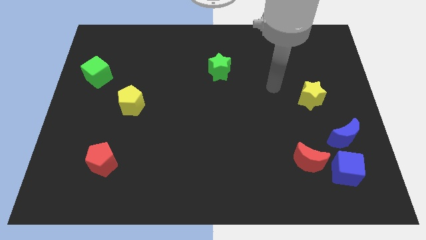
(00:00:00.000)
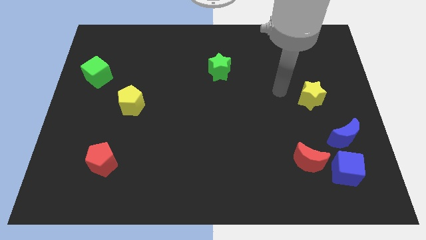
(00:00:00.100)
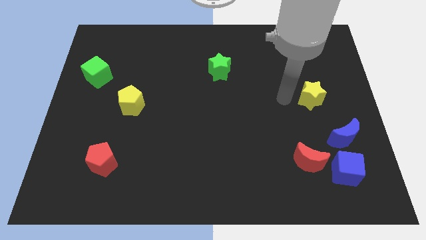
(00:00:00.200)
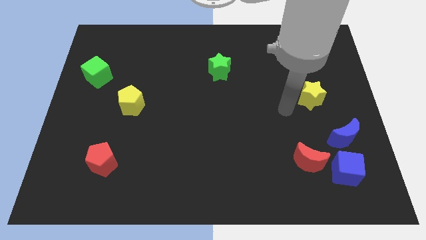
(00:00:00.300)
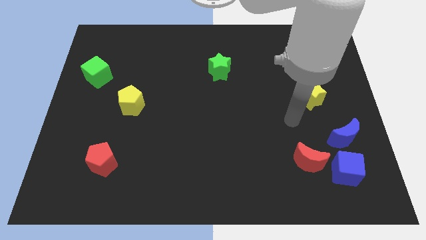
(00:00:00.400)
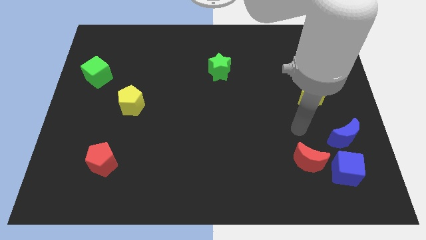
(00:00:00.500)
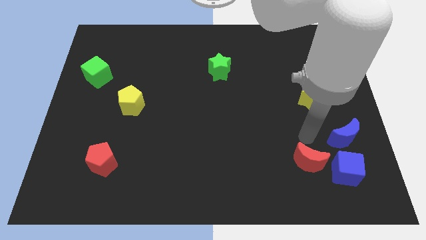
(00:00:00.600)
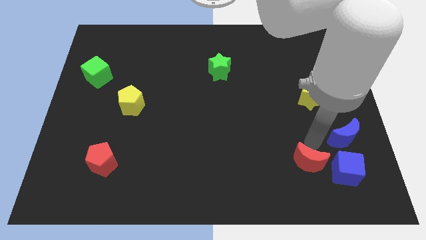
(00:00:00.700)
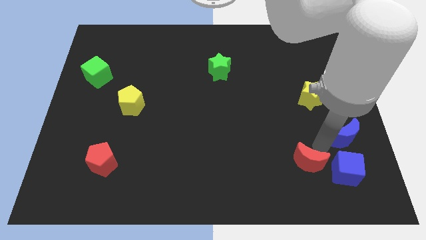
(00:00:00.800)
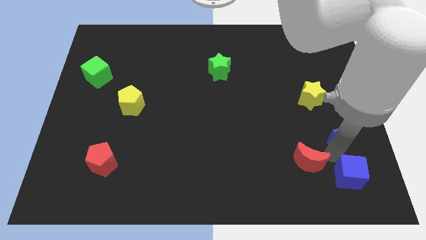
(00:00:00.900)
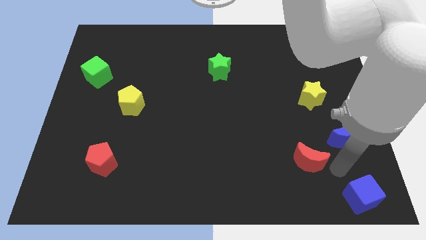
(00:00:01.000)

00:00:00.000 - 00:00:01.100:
separate the red moon from the blue cube

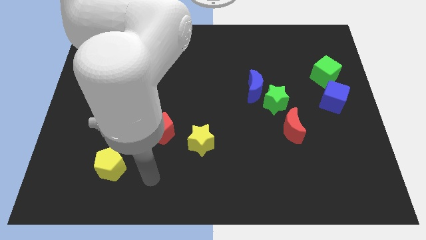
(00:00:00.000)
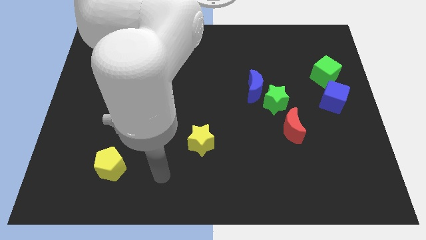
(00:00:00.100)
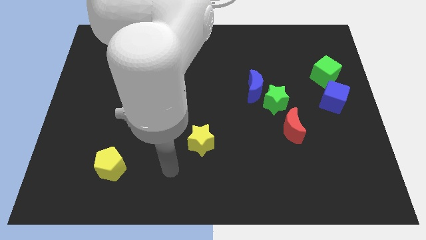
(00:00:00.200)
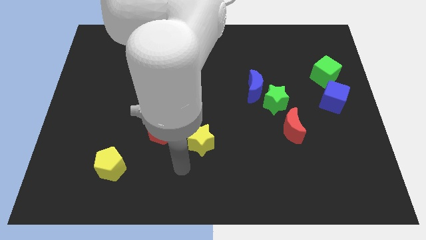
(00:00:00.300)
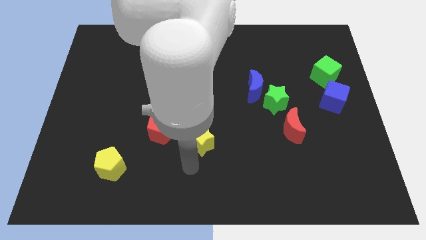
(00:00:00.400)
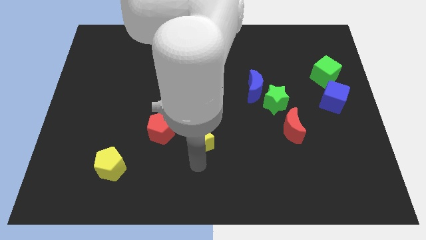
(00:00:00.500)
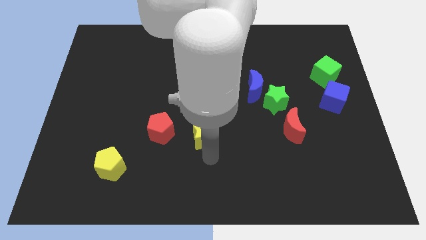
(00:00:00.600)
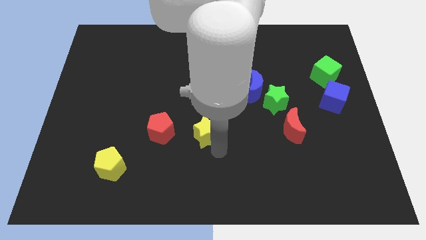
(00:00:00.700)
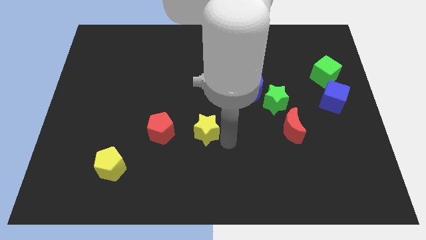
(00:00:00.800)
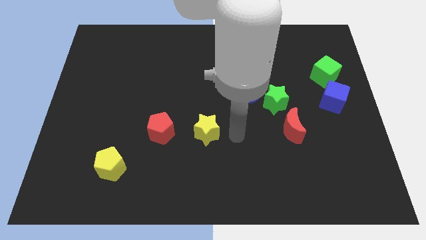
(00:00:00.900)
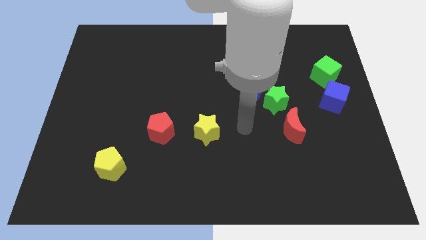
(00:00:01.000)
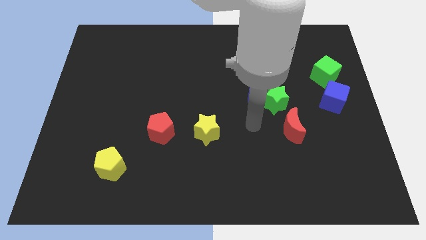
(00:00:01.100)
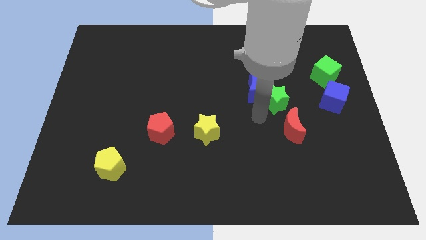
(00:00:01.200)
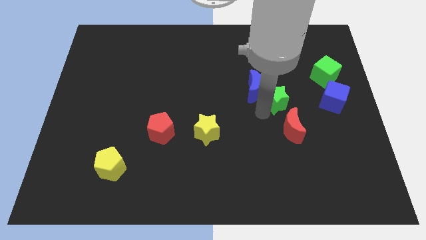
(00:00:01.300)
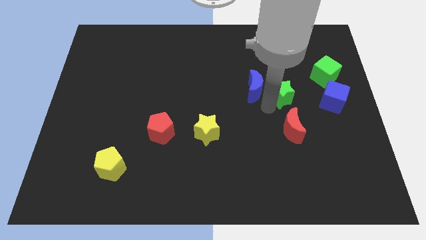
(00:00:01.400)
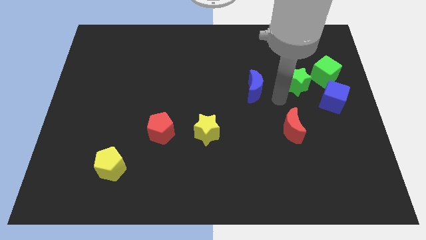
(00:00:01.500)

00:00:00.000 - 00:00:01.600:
move the blue moon away from the green star

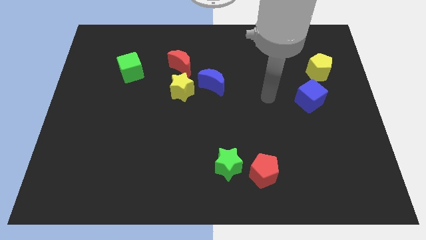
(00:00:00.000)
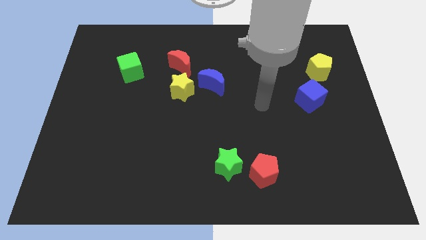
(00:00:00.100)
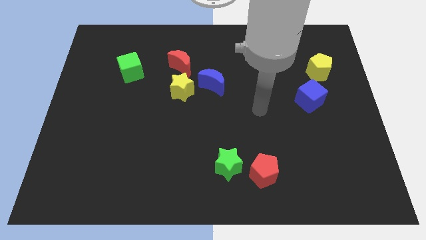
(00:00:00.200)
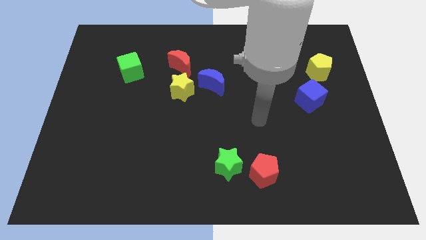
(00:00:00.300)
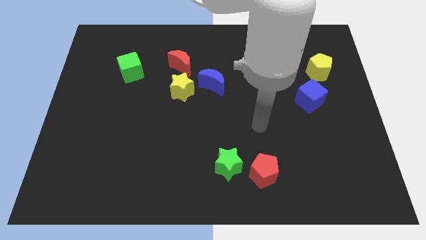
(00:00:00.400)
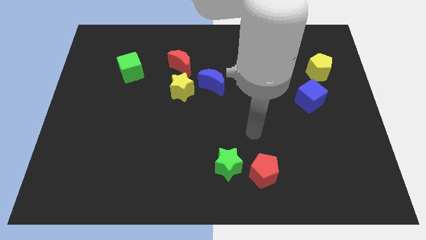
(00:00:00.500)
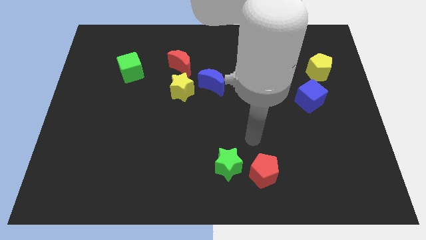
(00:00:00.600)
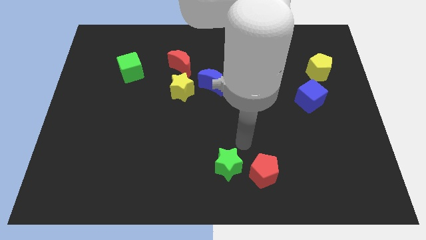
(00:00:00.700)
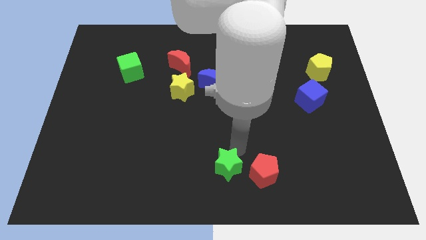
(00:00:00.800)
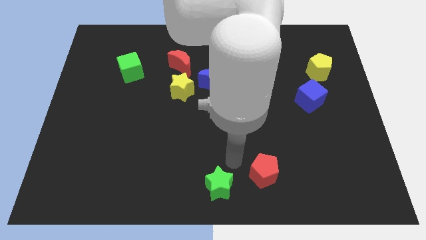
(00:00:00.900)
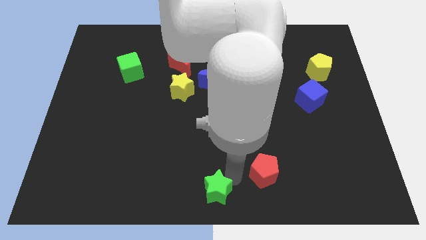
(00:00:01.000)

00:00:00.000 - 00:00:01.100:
move the red pentagon away from the green star

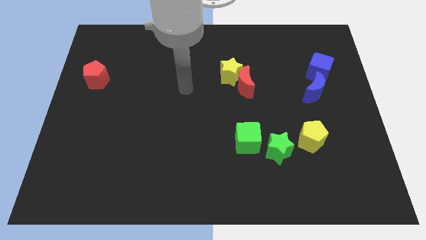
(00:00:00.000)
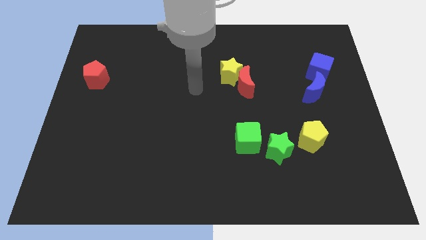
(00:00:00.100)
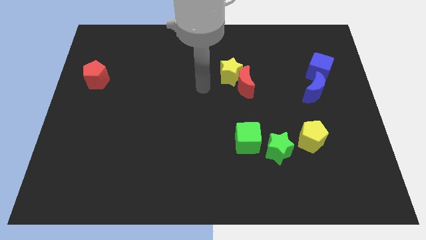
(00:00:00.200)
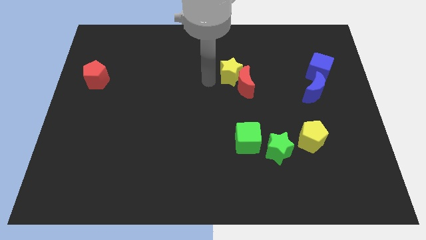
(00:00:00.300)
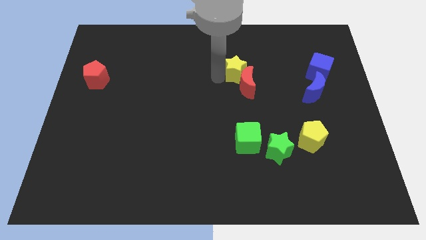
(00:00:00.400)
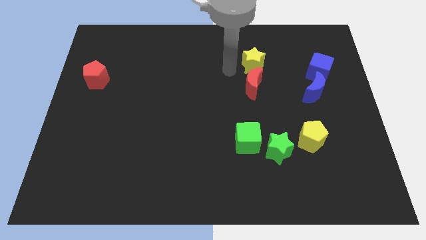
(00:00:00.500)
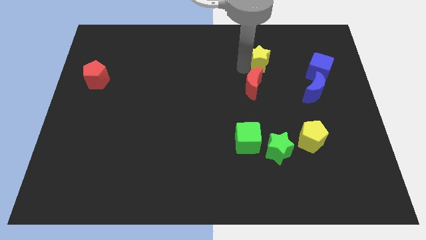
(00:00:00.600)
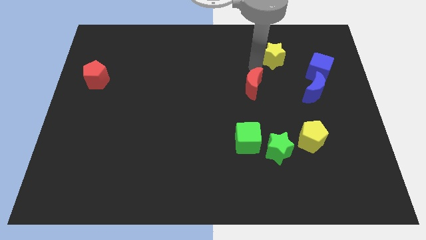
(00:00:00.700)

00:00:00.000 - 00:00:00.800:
separate the red moon from the yellow star

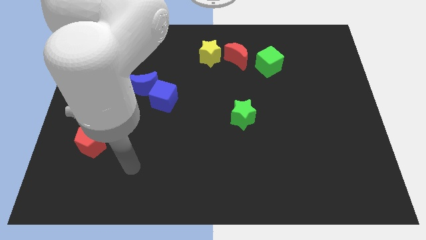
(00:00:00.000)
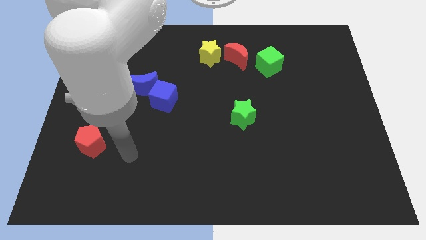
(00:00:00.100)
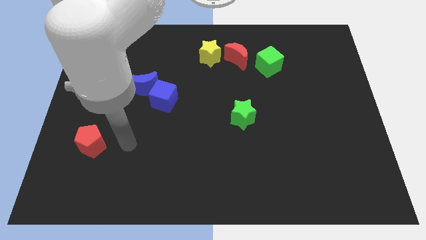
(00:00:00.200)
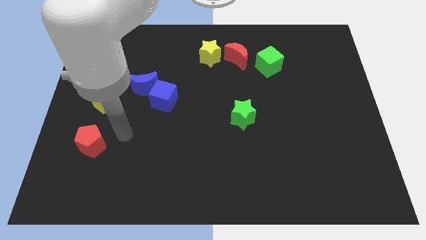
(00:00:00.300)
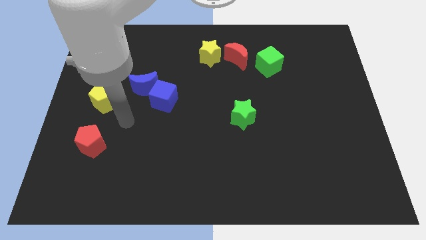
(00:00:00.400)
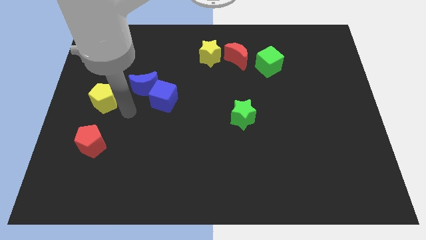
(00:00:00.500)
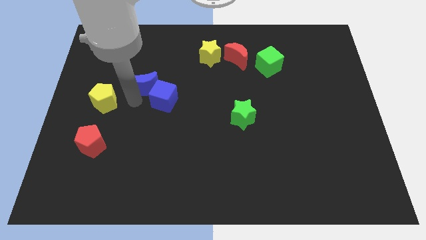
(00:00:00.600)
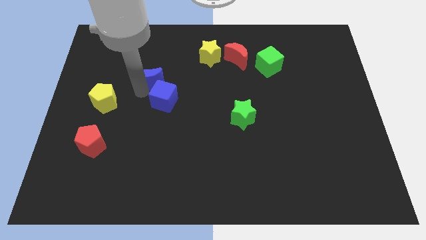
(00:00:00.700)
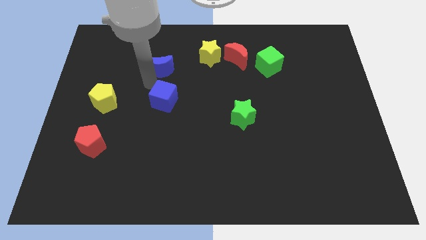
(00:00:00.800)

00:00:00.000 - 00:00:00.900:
pull the blue cube apart from the blue moon

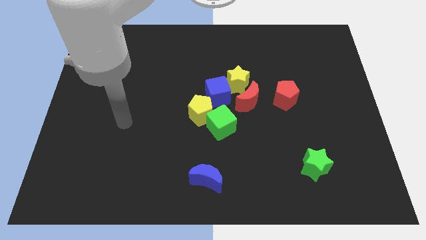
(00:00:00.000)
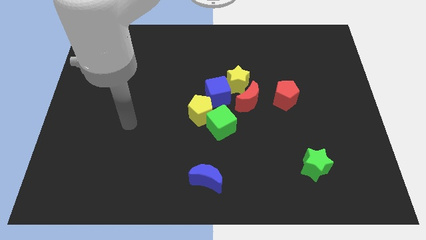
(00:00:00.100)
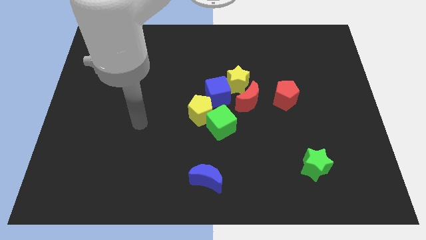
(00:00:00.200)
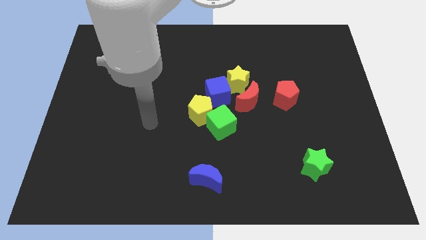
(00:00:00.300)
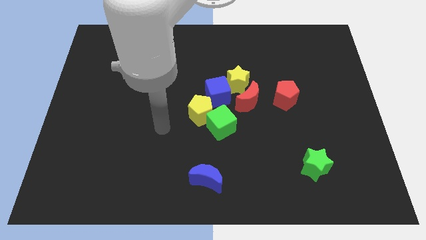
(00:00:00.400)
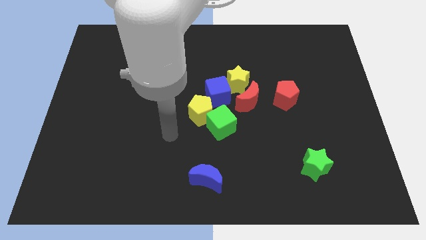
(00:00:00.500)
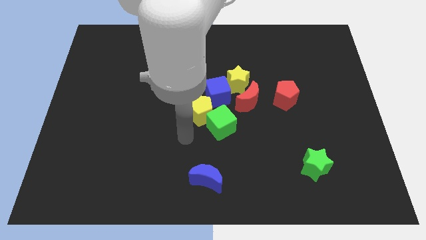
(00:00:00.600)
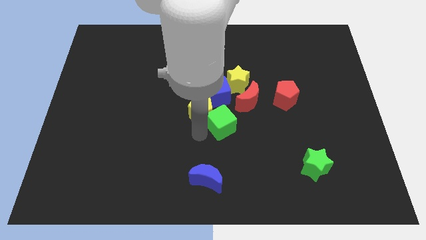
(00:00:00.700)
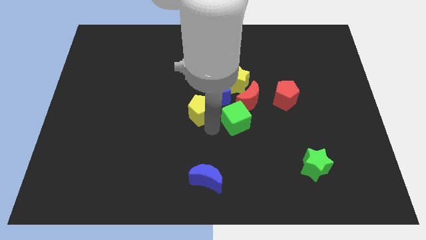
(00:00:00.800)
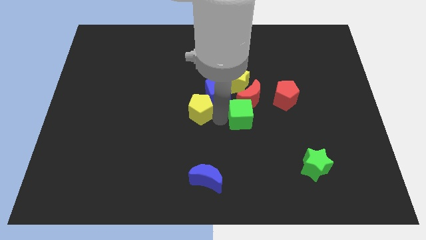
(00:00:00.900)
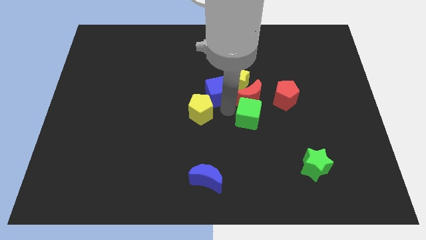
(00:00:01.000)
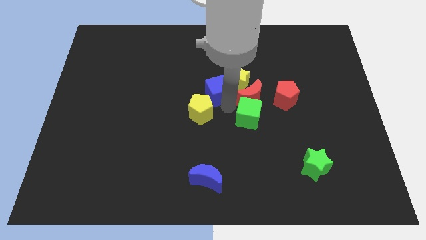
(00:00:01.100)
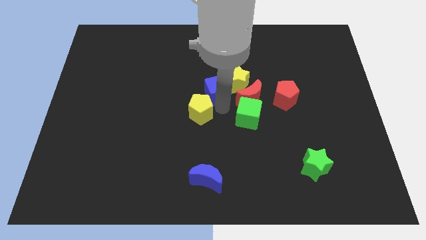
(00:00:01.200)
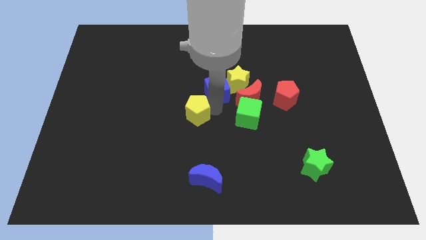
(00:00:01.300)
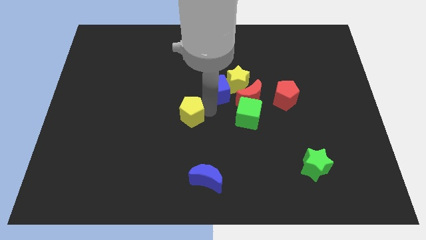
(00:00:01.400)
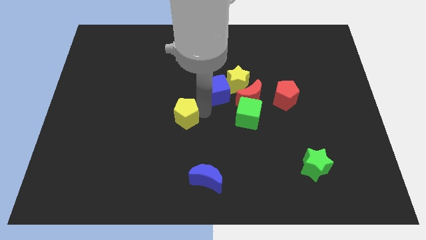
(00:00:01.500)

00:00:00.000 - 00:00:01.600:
move the yellow pentagon away from the green cube and blue cube

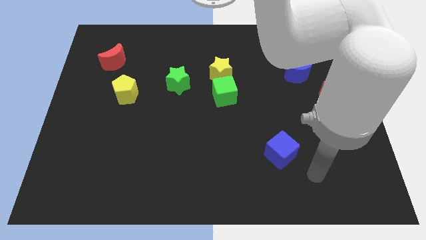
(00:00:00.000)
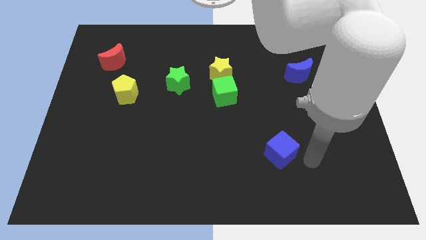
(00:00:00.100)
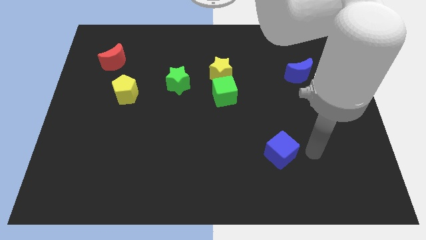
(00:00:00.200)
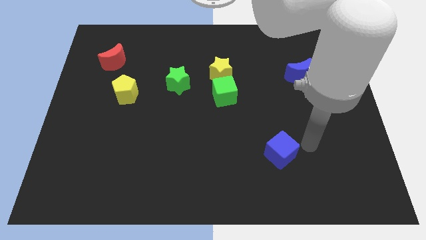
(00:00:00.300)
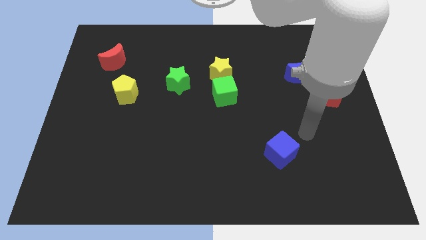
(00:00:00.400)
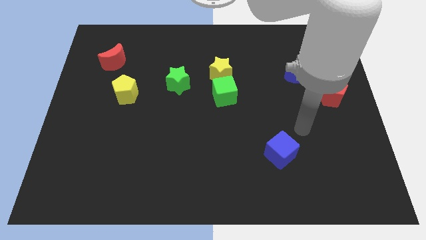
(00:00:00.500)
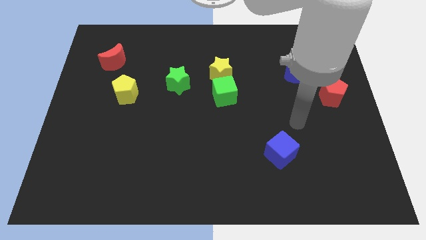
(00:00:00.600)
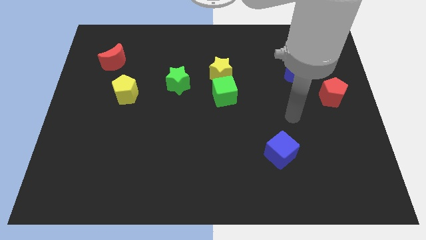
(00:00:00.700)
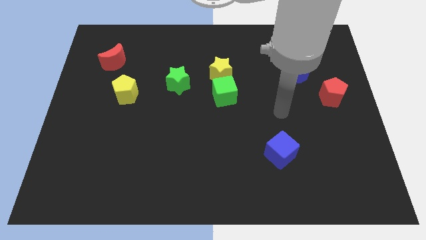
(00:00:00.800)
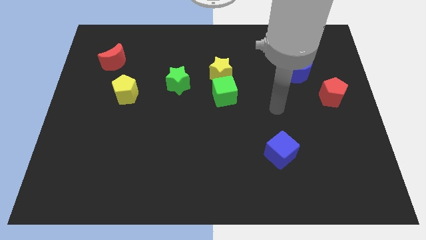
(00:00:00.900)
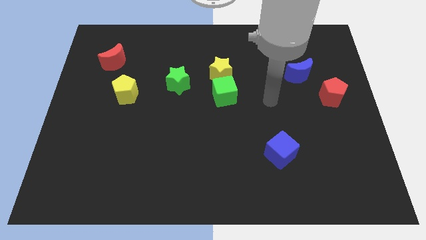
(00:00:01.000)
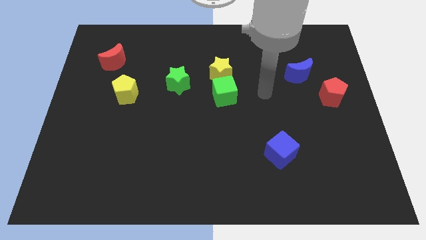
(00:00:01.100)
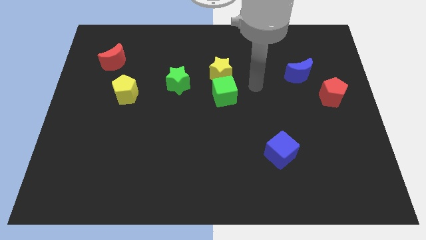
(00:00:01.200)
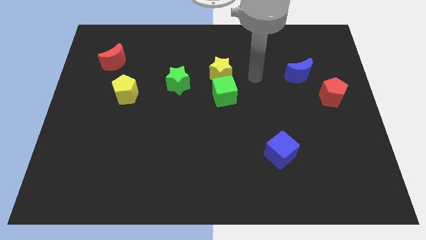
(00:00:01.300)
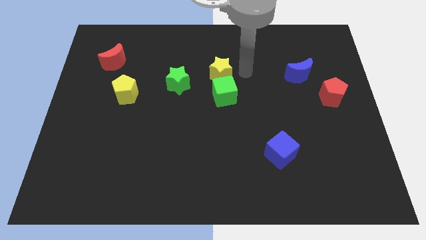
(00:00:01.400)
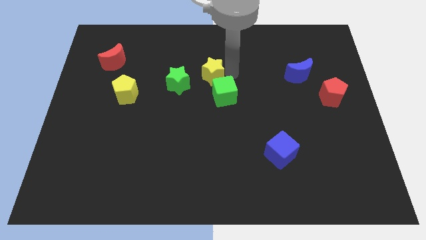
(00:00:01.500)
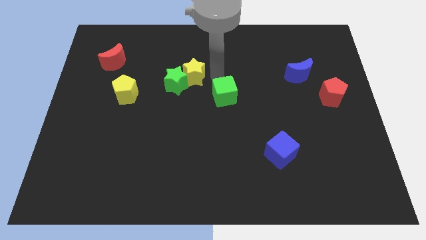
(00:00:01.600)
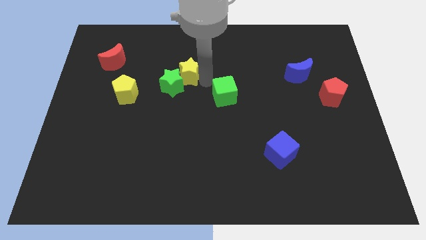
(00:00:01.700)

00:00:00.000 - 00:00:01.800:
move the green cube away from the yellow star

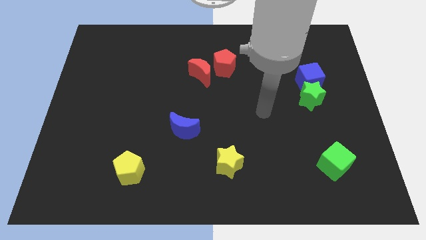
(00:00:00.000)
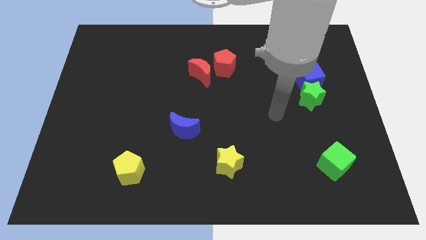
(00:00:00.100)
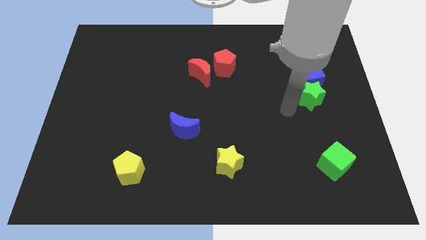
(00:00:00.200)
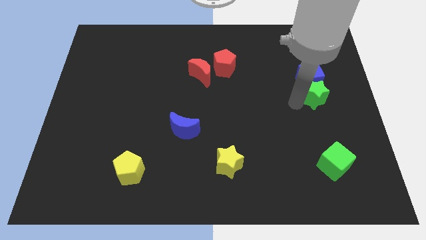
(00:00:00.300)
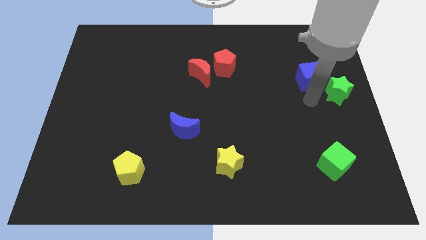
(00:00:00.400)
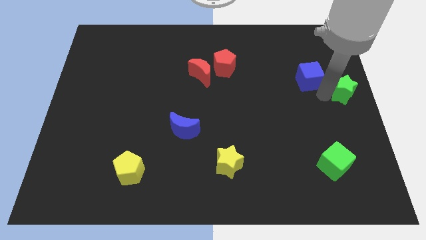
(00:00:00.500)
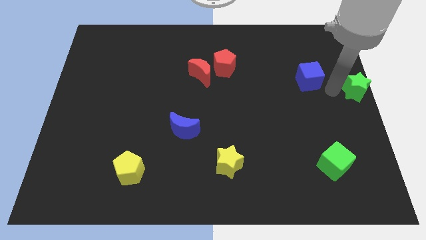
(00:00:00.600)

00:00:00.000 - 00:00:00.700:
move the blue cube away from the green star
